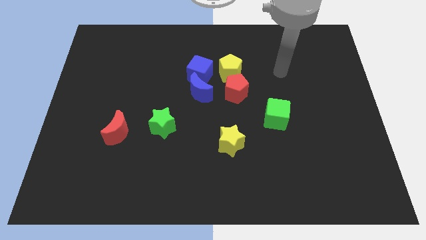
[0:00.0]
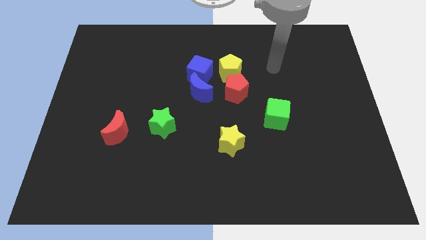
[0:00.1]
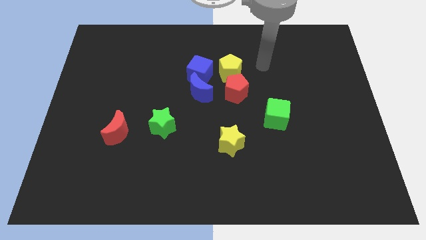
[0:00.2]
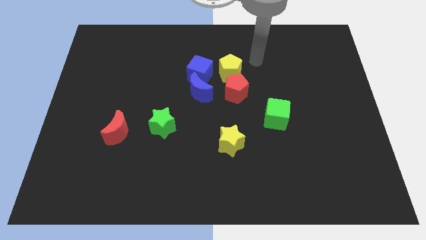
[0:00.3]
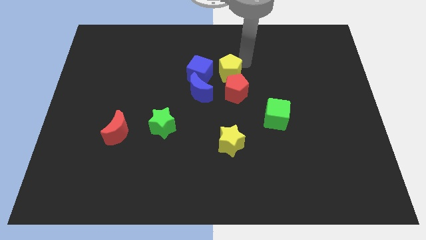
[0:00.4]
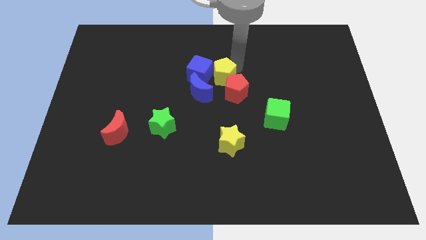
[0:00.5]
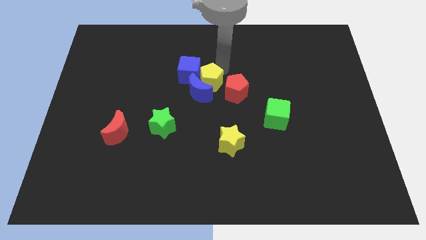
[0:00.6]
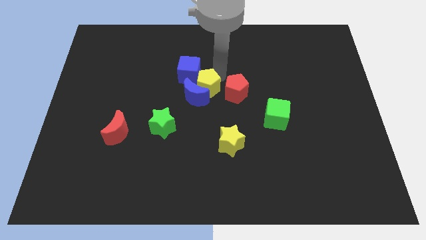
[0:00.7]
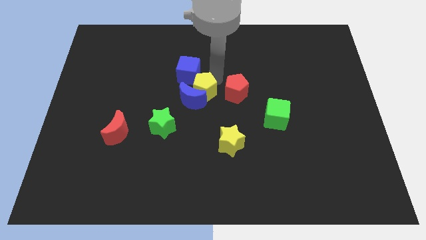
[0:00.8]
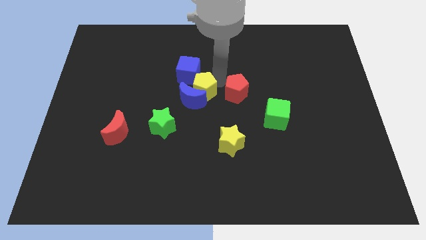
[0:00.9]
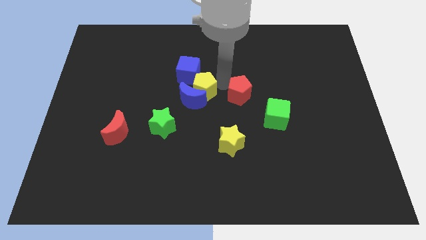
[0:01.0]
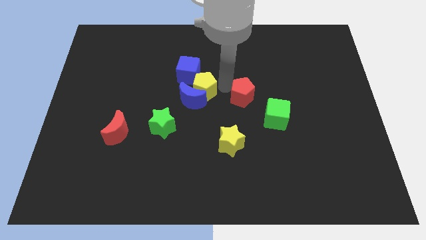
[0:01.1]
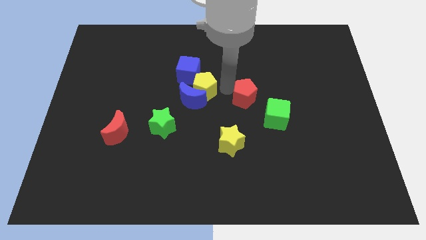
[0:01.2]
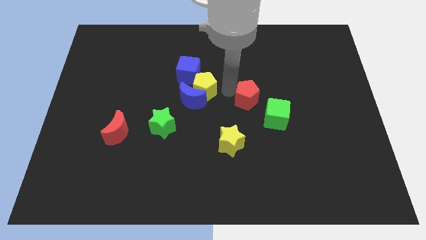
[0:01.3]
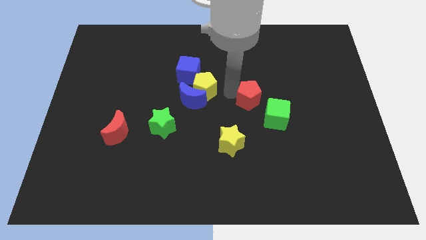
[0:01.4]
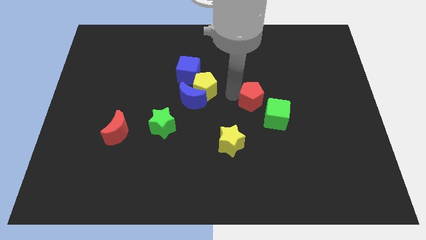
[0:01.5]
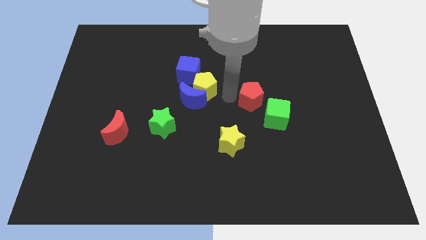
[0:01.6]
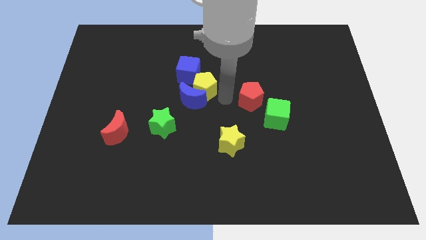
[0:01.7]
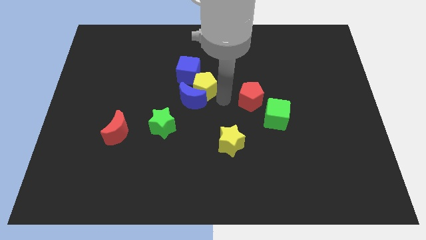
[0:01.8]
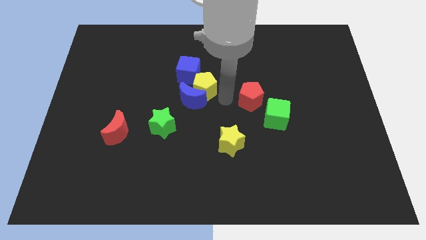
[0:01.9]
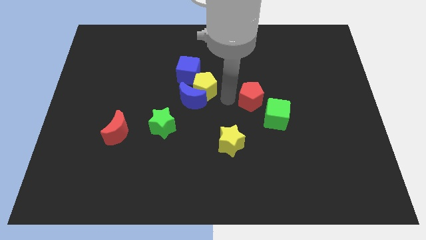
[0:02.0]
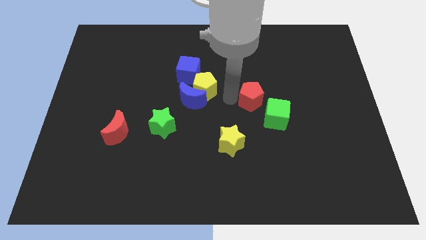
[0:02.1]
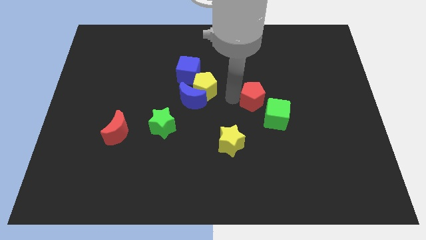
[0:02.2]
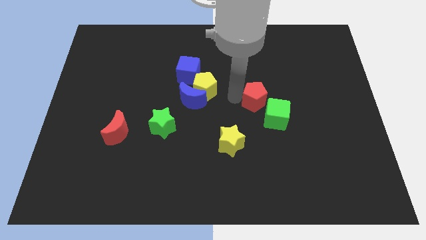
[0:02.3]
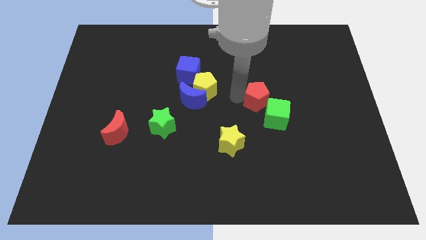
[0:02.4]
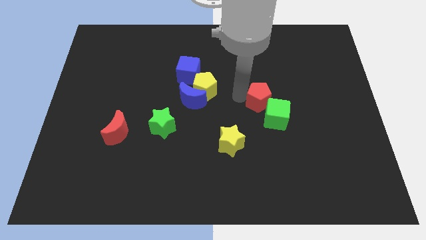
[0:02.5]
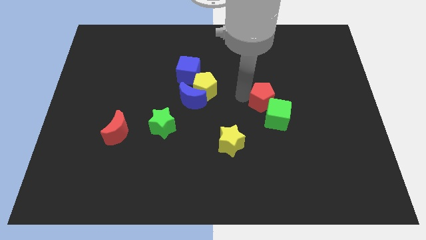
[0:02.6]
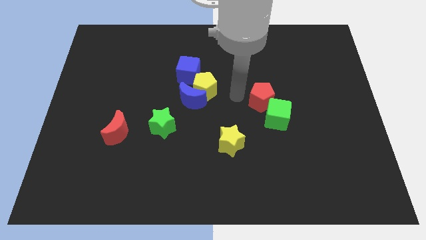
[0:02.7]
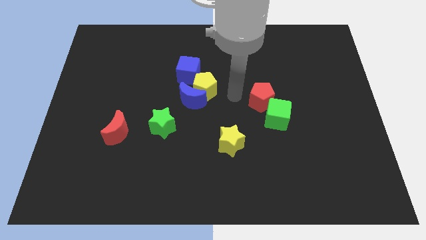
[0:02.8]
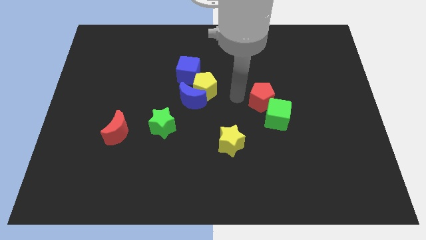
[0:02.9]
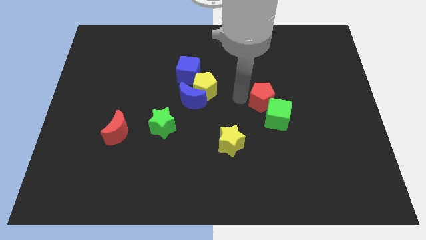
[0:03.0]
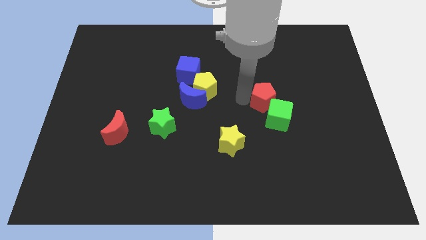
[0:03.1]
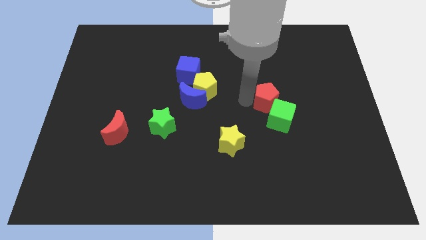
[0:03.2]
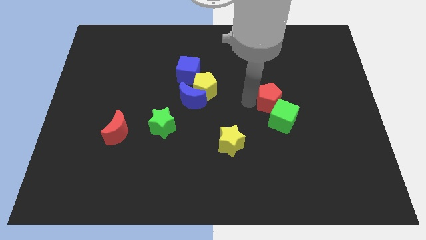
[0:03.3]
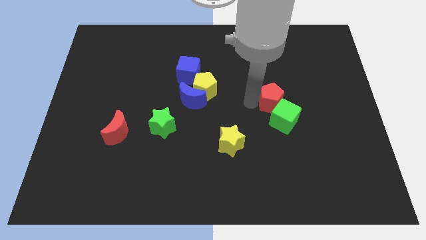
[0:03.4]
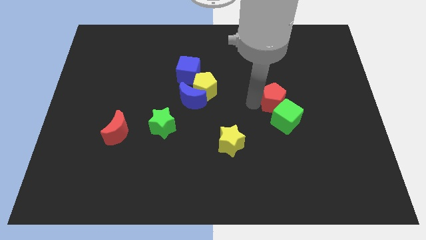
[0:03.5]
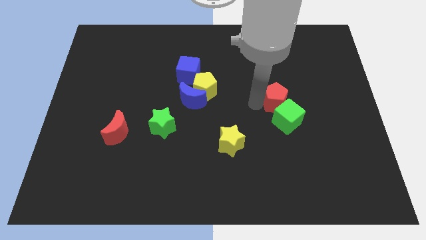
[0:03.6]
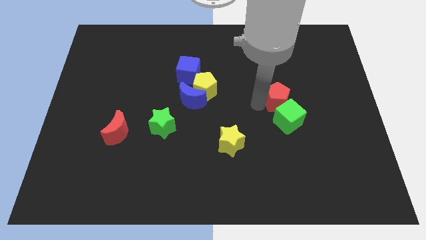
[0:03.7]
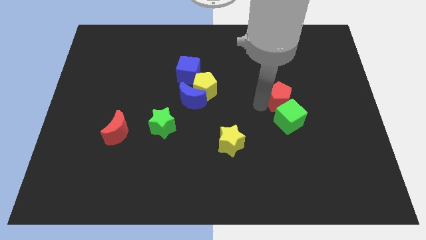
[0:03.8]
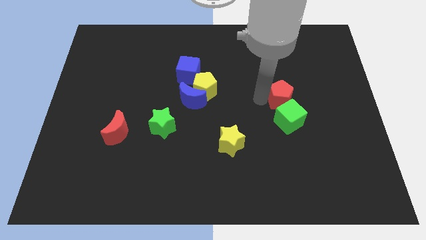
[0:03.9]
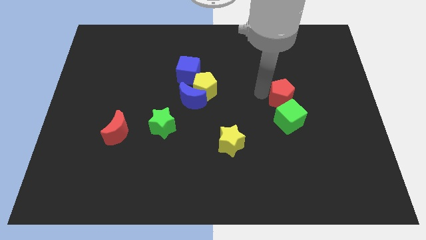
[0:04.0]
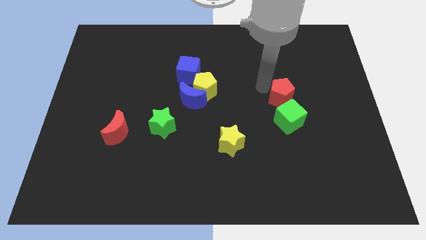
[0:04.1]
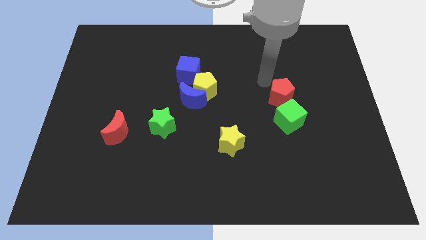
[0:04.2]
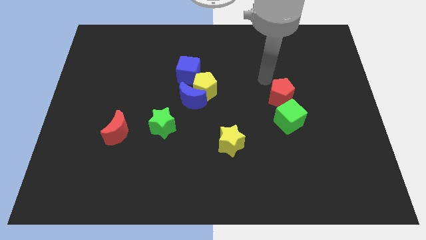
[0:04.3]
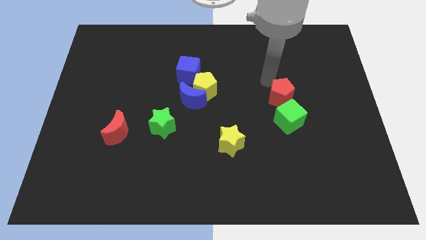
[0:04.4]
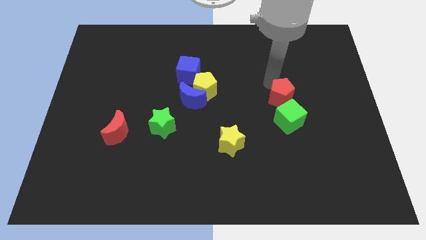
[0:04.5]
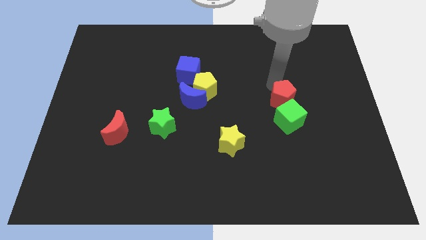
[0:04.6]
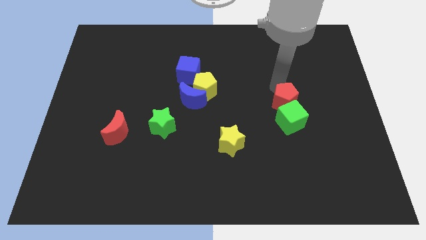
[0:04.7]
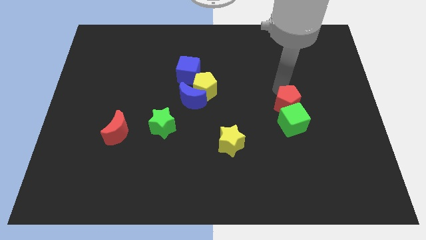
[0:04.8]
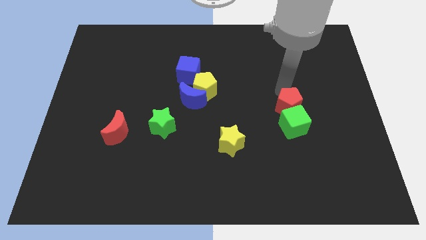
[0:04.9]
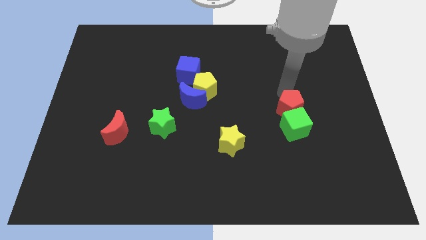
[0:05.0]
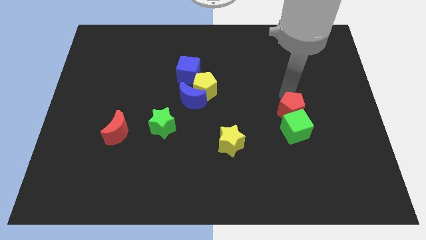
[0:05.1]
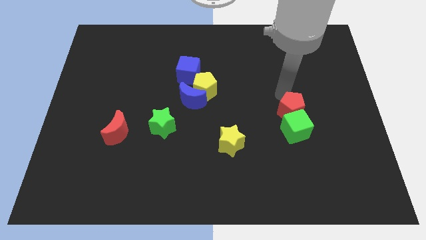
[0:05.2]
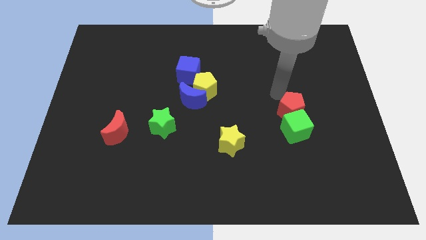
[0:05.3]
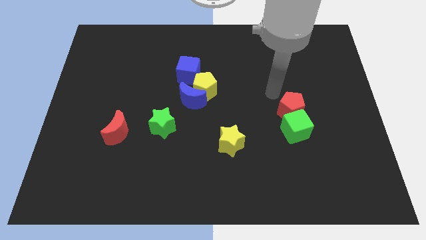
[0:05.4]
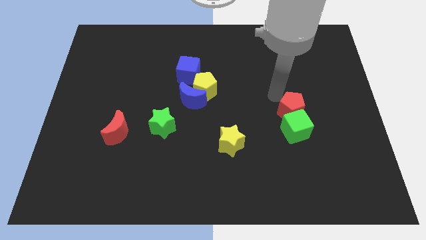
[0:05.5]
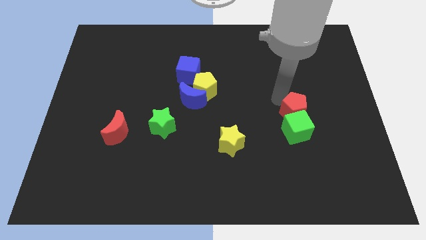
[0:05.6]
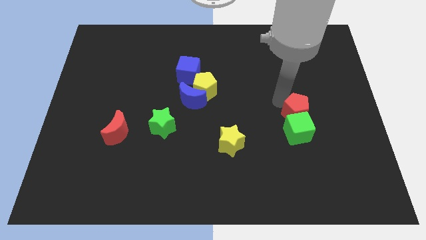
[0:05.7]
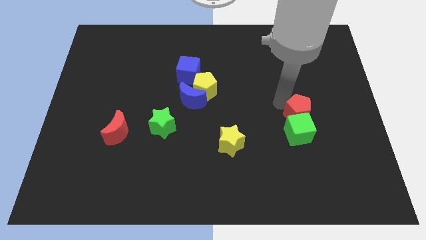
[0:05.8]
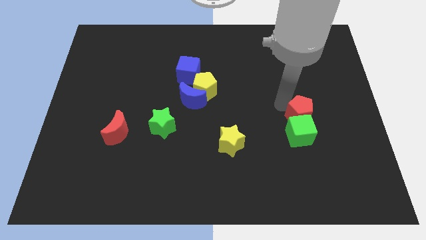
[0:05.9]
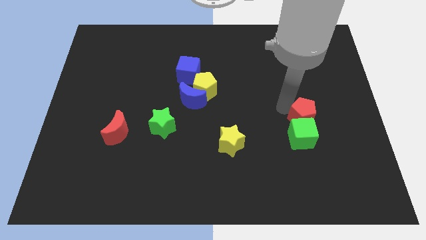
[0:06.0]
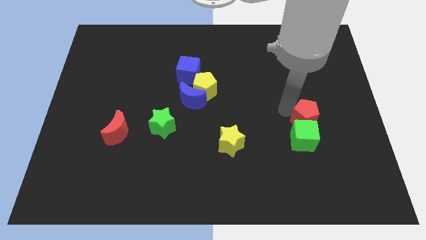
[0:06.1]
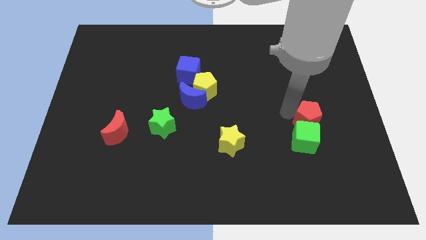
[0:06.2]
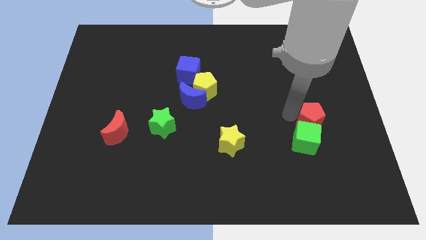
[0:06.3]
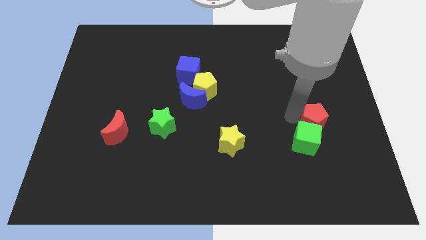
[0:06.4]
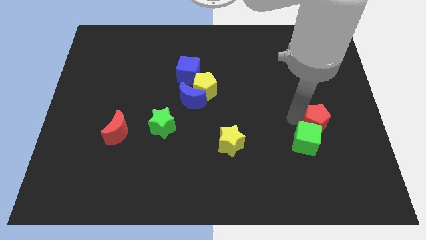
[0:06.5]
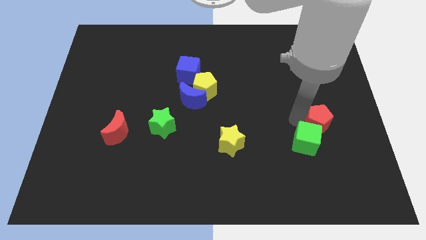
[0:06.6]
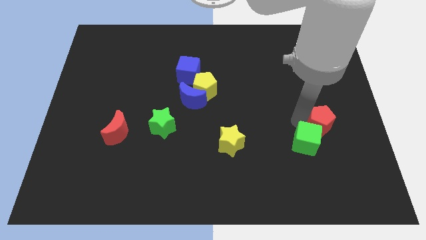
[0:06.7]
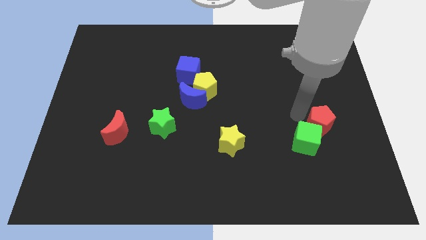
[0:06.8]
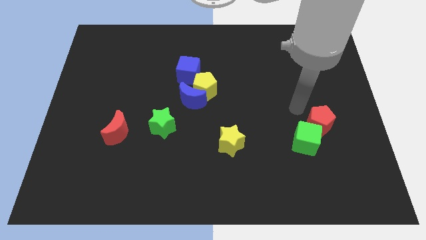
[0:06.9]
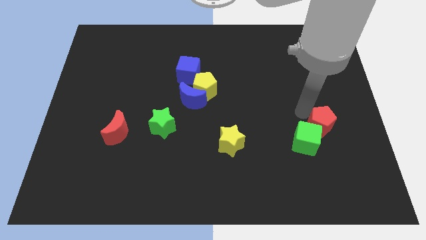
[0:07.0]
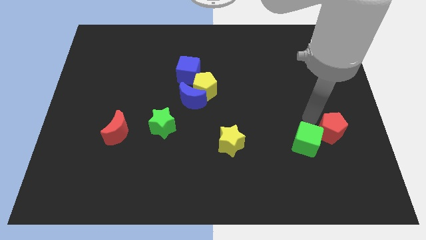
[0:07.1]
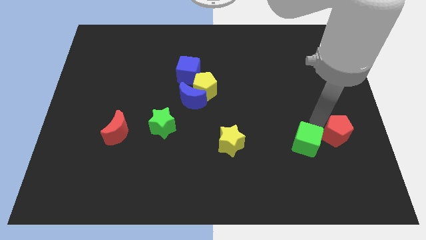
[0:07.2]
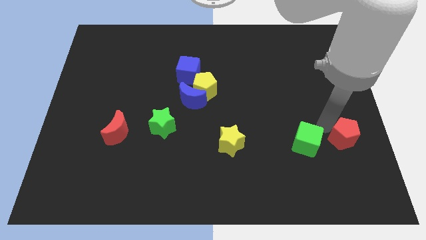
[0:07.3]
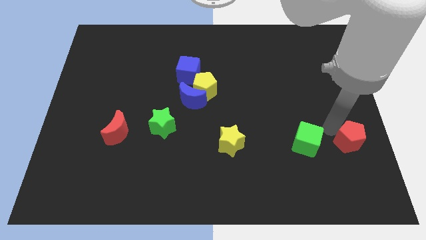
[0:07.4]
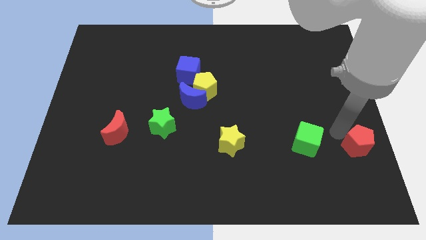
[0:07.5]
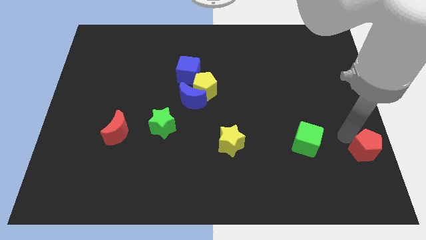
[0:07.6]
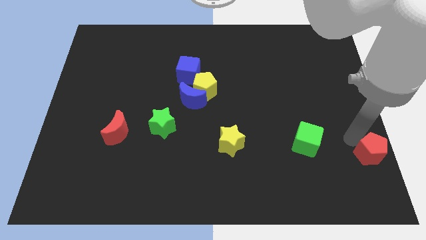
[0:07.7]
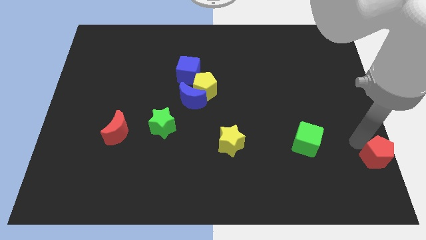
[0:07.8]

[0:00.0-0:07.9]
move the red pentagon to the bottom right
